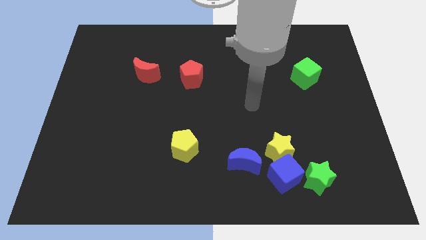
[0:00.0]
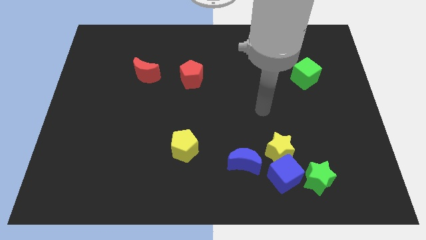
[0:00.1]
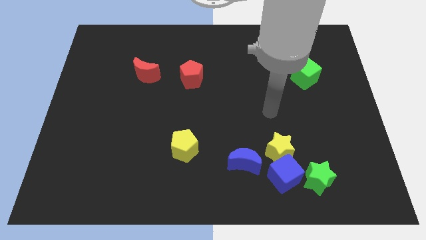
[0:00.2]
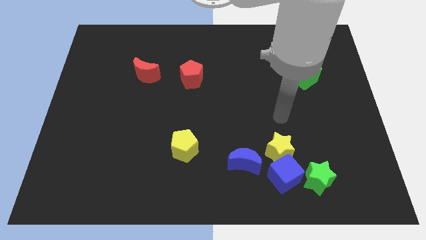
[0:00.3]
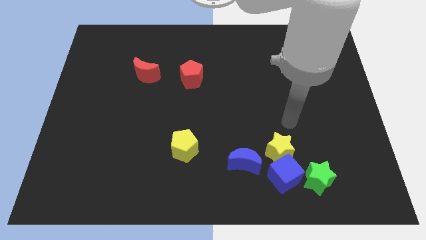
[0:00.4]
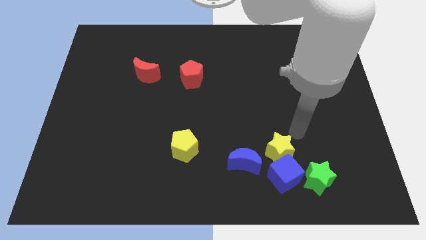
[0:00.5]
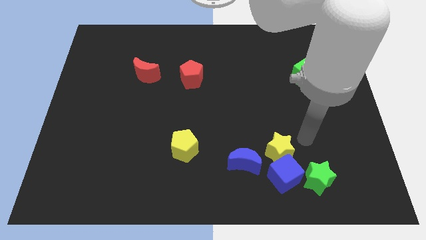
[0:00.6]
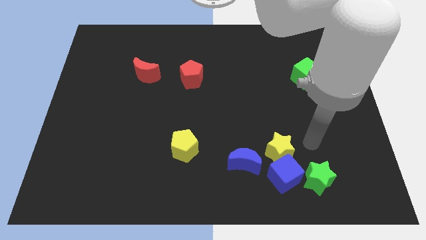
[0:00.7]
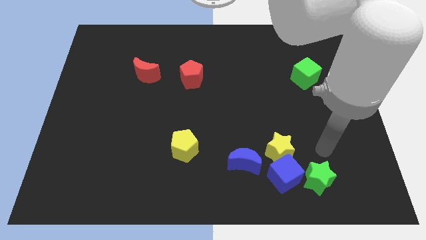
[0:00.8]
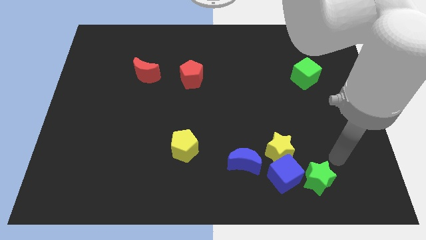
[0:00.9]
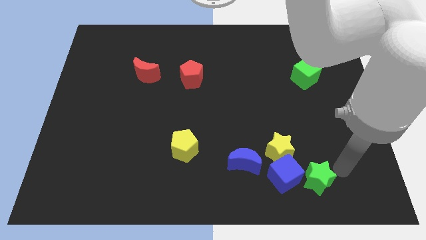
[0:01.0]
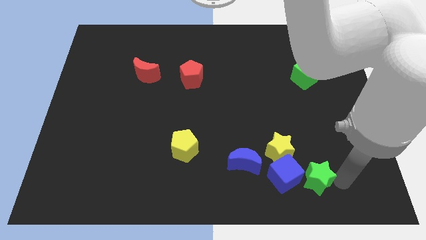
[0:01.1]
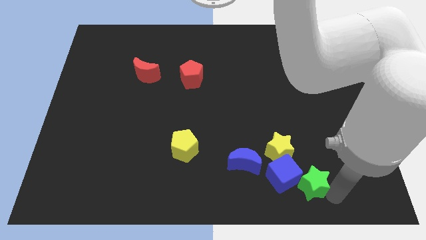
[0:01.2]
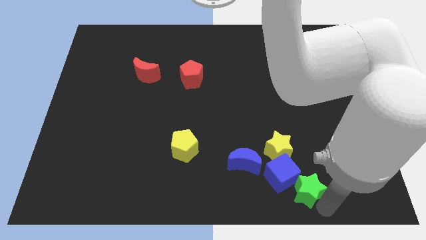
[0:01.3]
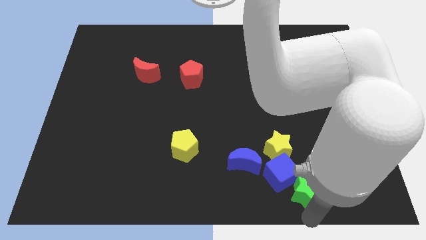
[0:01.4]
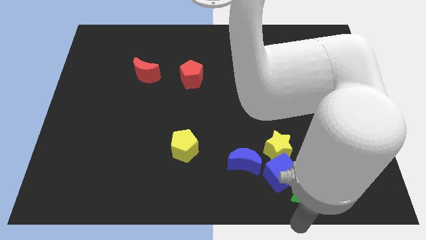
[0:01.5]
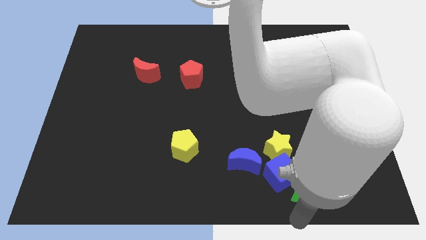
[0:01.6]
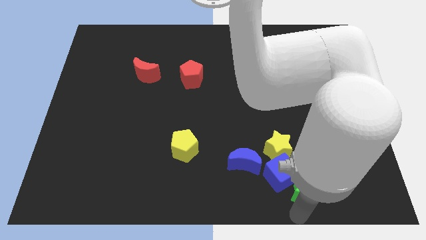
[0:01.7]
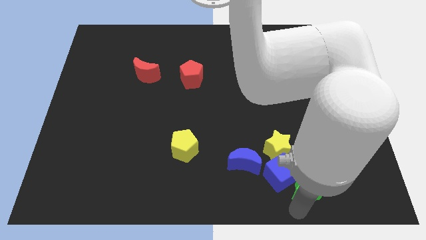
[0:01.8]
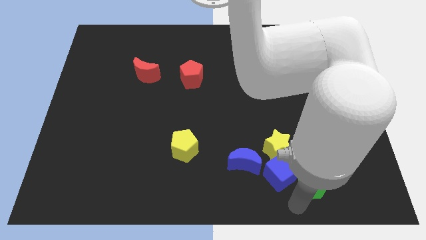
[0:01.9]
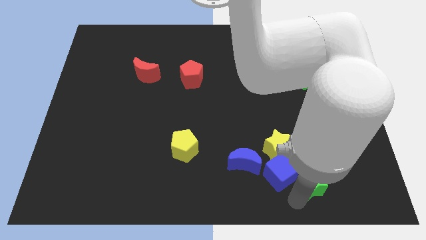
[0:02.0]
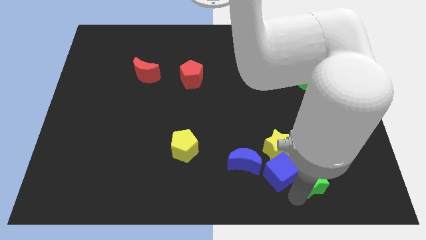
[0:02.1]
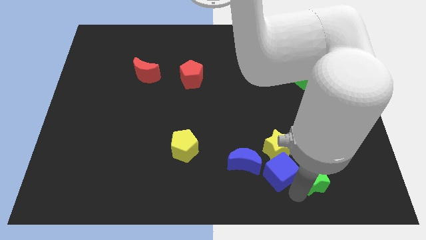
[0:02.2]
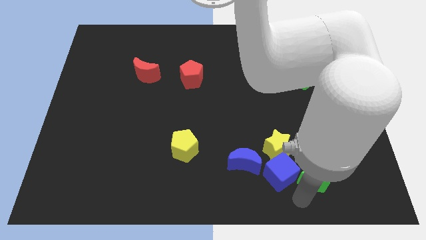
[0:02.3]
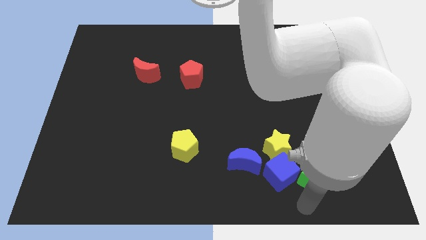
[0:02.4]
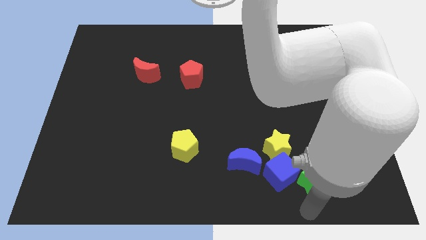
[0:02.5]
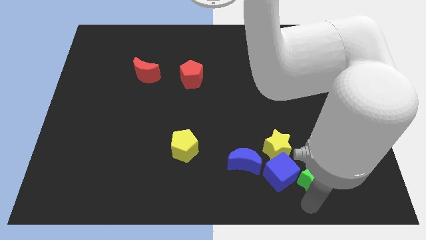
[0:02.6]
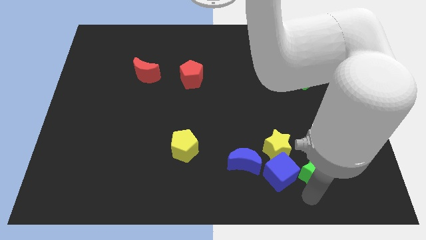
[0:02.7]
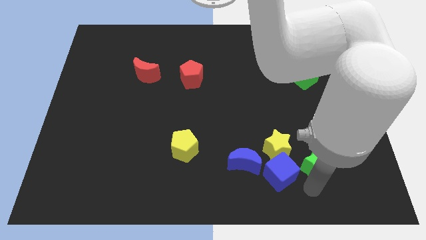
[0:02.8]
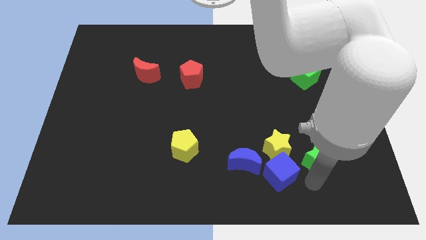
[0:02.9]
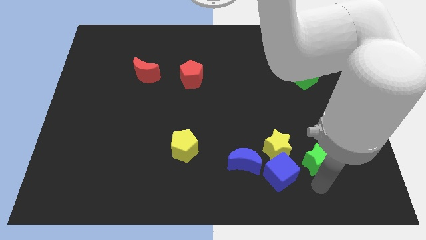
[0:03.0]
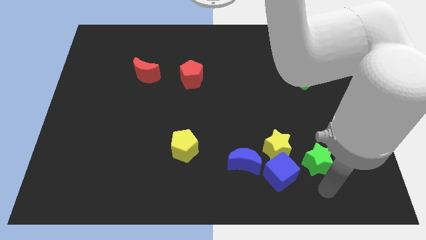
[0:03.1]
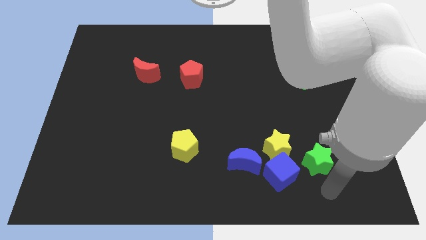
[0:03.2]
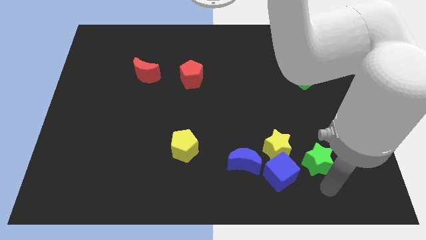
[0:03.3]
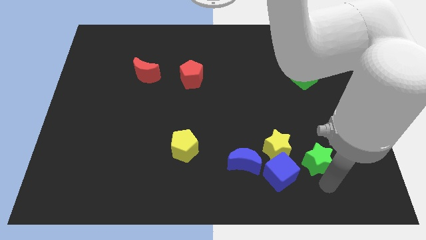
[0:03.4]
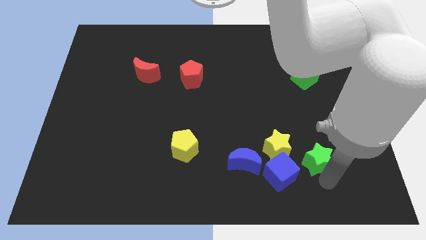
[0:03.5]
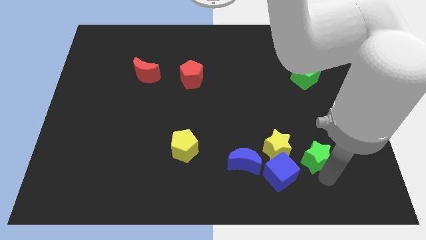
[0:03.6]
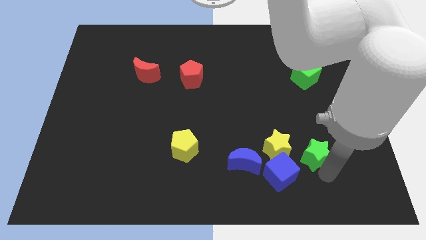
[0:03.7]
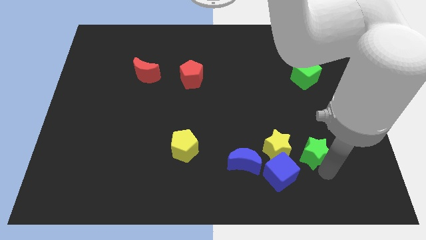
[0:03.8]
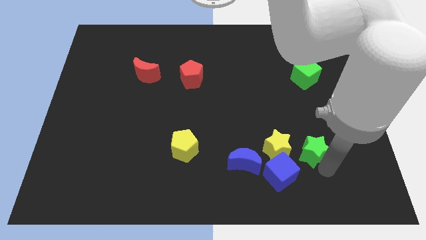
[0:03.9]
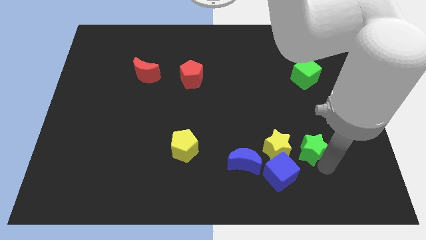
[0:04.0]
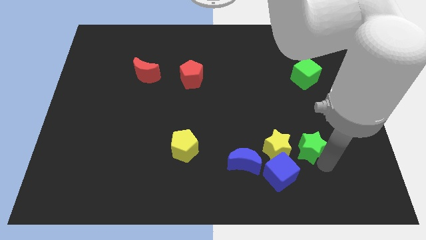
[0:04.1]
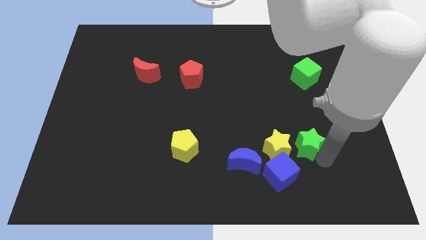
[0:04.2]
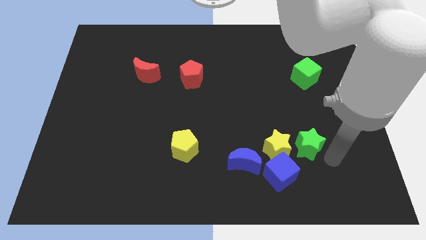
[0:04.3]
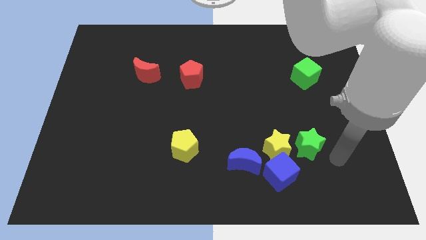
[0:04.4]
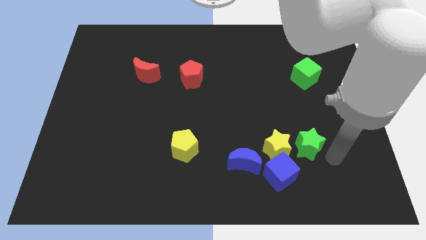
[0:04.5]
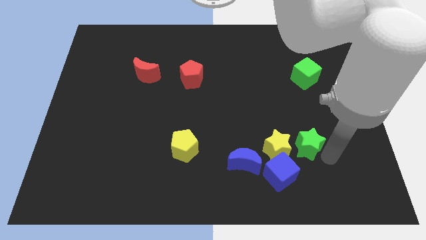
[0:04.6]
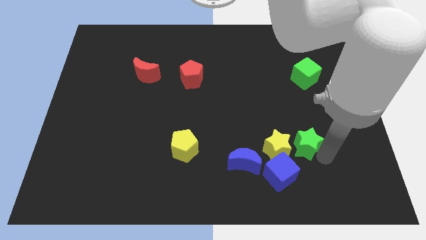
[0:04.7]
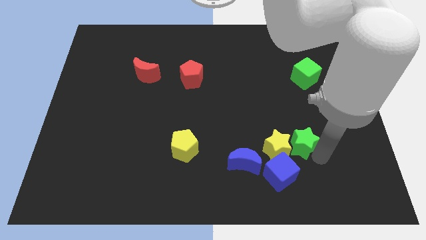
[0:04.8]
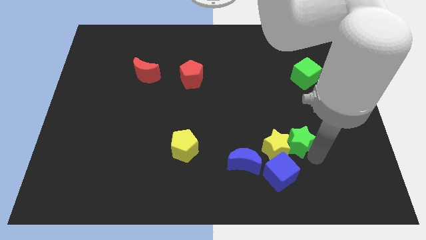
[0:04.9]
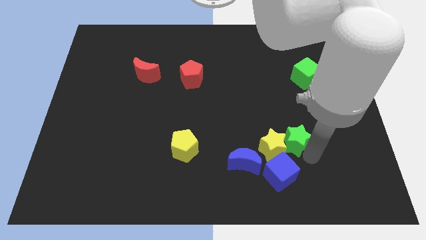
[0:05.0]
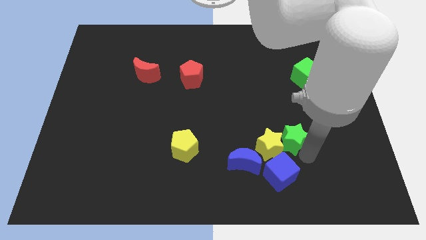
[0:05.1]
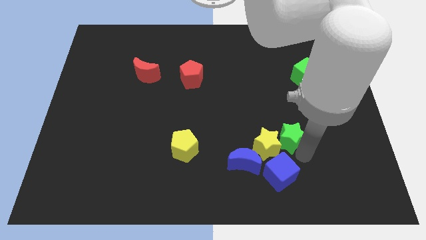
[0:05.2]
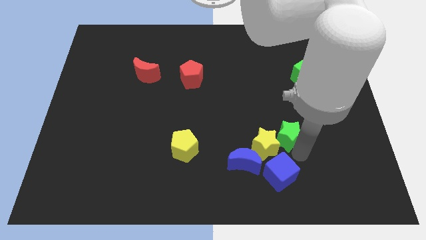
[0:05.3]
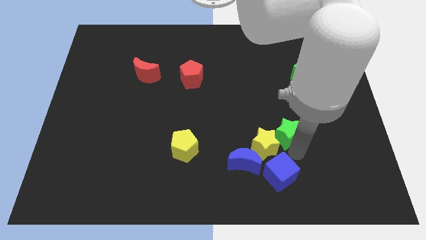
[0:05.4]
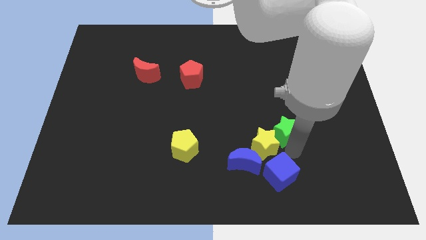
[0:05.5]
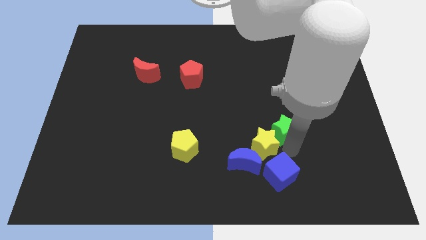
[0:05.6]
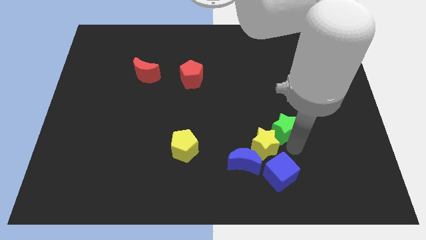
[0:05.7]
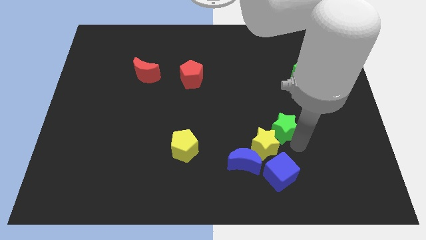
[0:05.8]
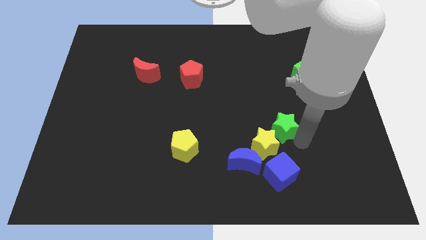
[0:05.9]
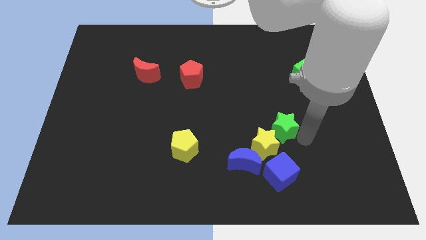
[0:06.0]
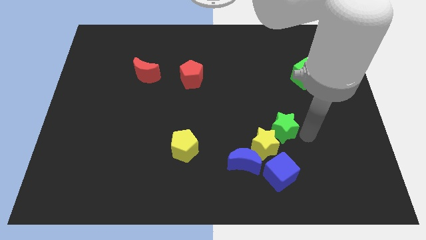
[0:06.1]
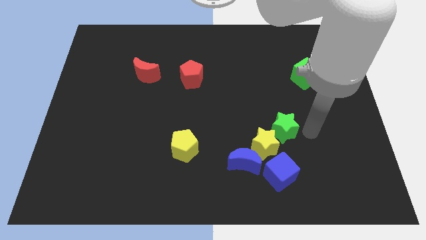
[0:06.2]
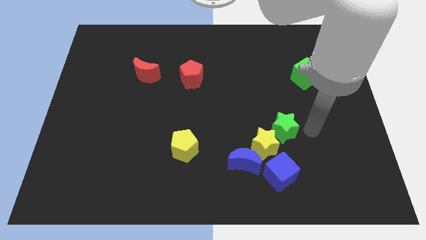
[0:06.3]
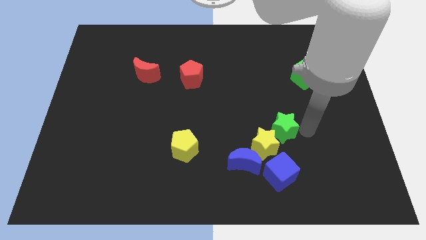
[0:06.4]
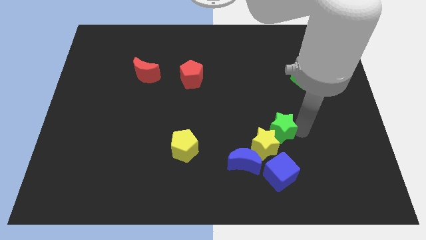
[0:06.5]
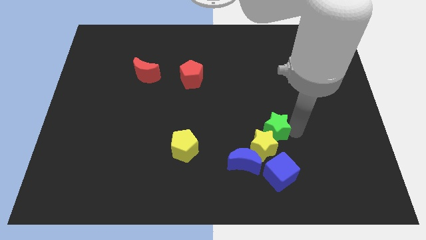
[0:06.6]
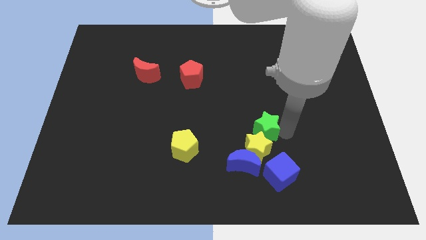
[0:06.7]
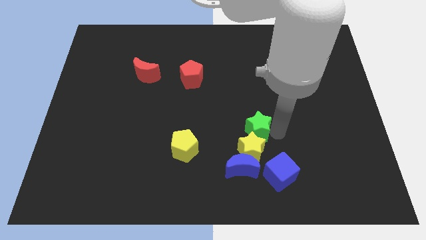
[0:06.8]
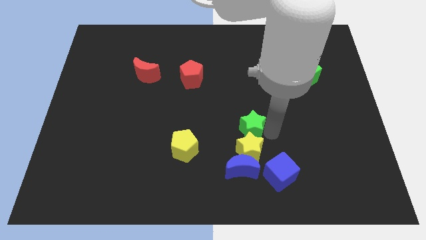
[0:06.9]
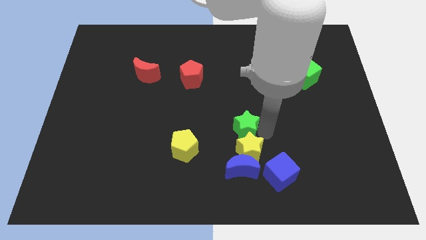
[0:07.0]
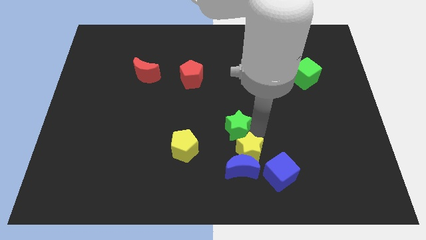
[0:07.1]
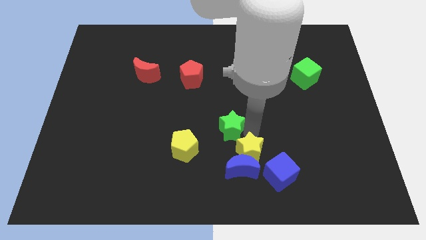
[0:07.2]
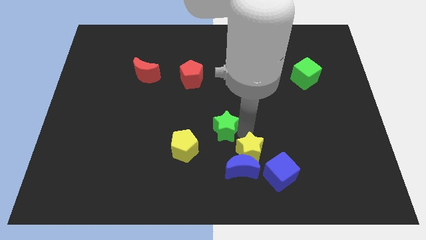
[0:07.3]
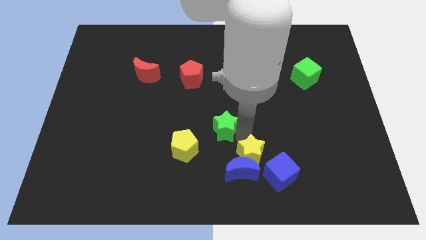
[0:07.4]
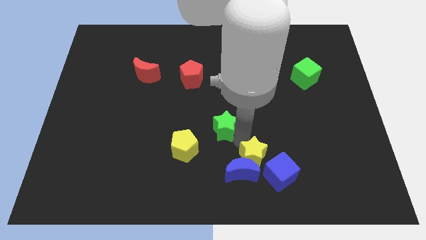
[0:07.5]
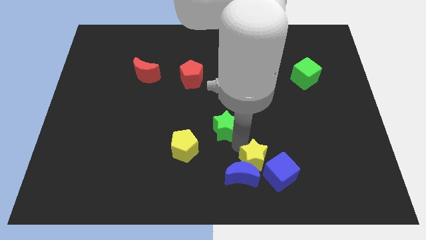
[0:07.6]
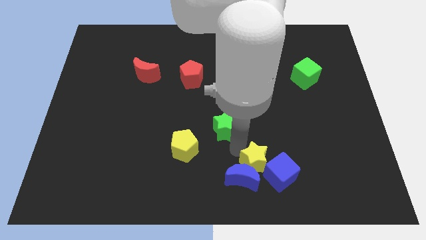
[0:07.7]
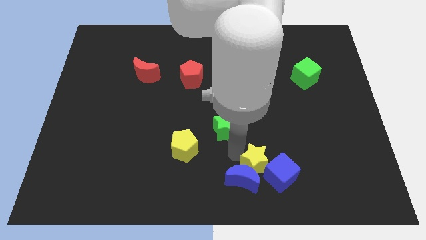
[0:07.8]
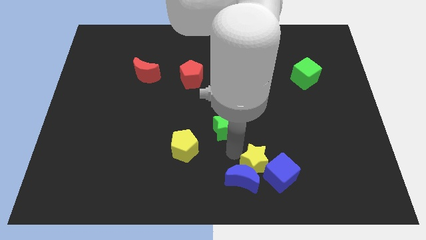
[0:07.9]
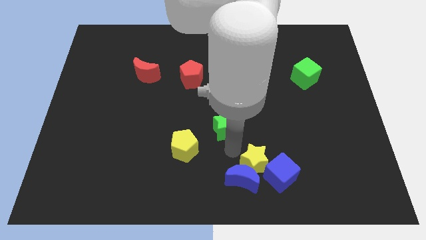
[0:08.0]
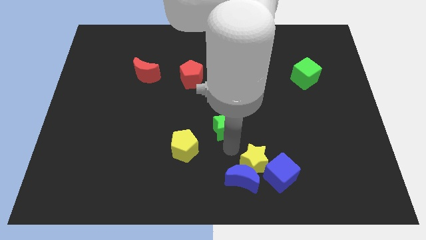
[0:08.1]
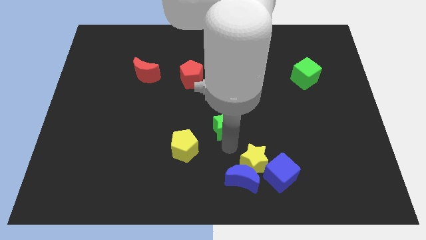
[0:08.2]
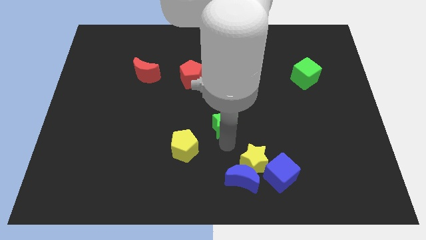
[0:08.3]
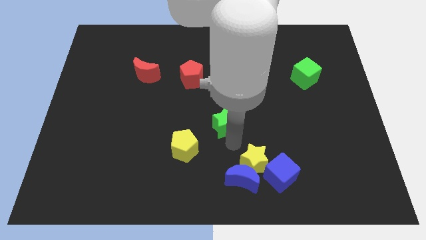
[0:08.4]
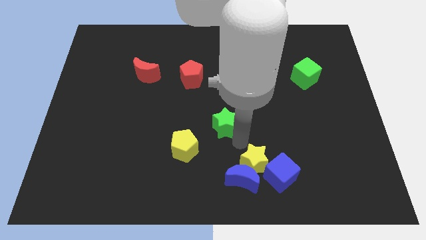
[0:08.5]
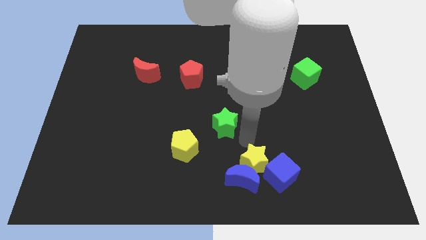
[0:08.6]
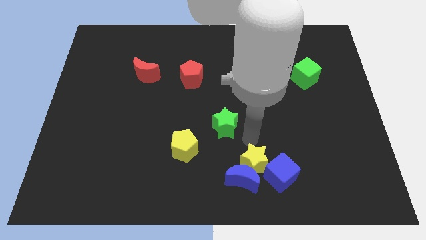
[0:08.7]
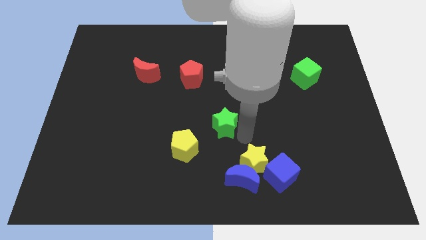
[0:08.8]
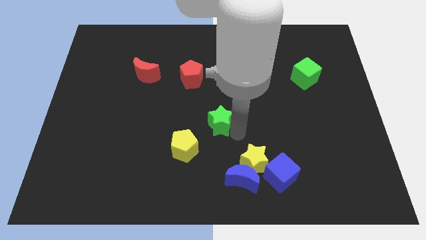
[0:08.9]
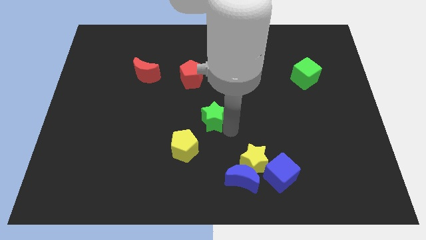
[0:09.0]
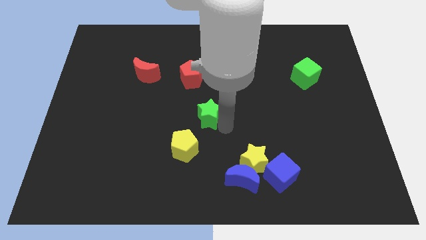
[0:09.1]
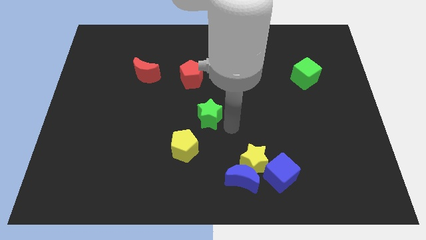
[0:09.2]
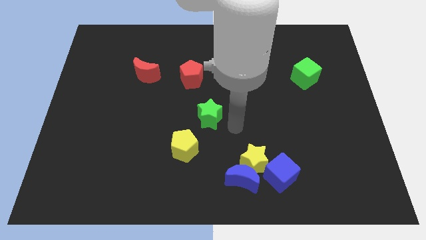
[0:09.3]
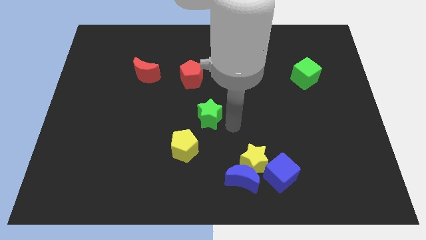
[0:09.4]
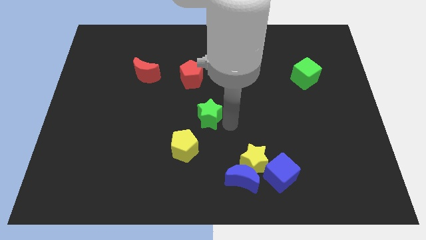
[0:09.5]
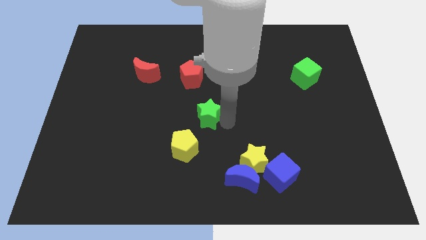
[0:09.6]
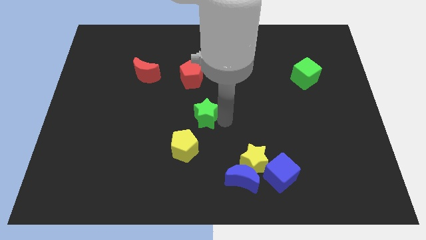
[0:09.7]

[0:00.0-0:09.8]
move the green star to the top side of the yellow pentagon
